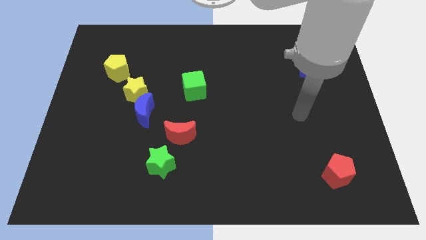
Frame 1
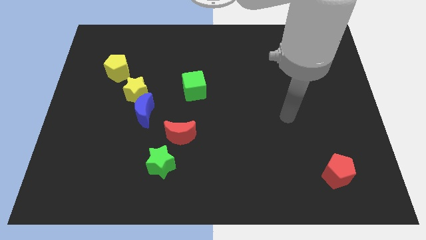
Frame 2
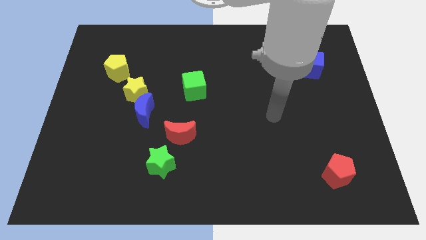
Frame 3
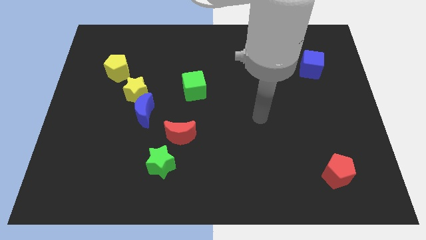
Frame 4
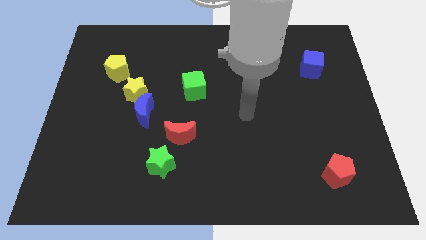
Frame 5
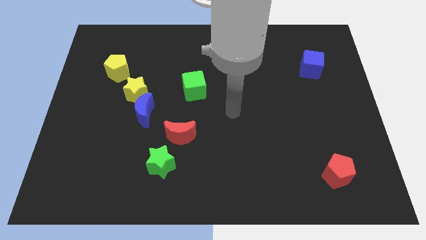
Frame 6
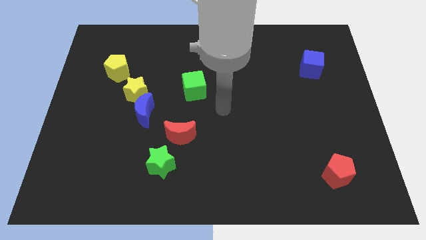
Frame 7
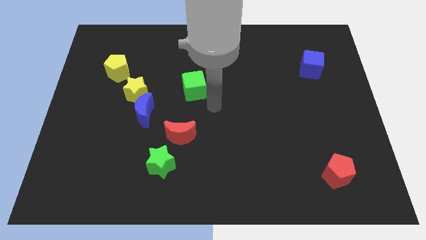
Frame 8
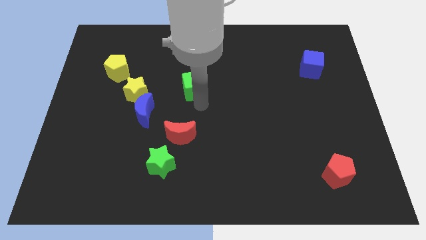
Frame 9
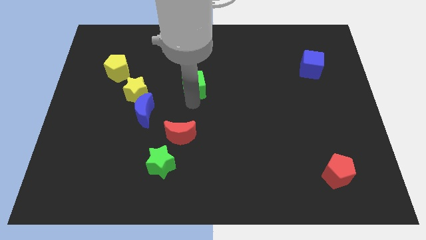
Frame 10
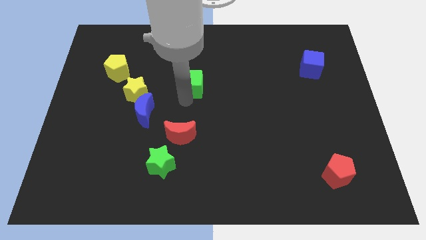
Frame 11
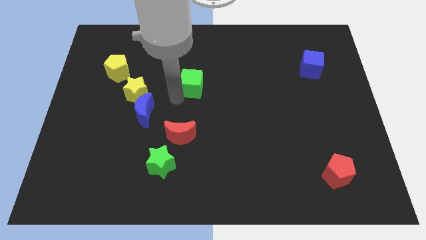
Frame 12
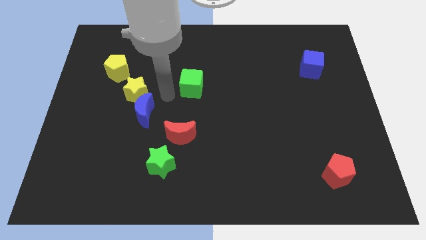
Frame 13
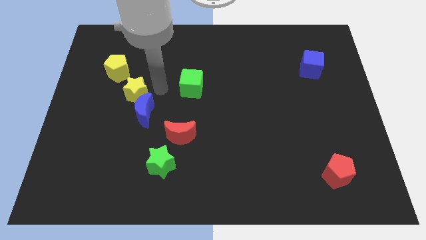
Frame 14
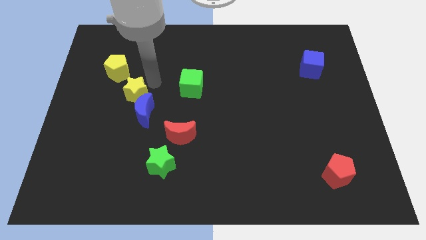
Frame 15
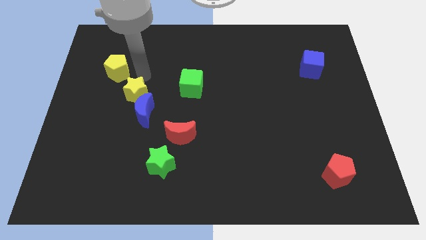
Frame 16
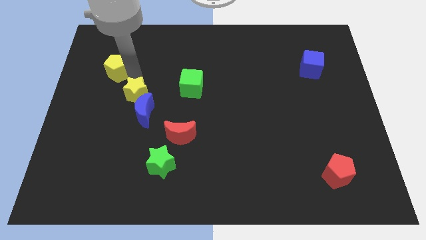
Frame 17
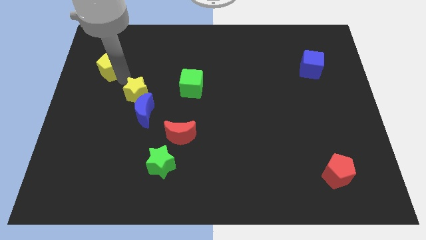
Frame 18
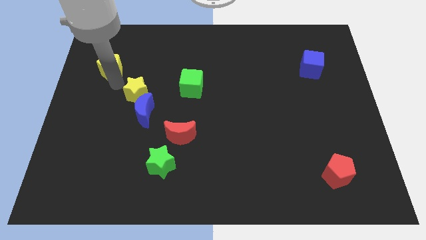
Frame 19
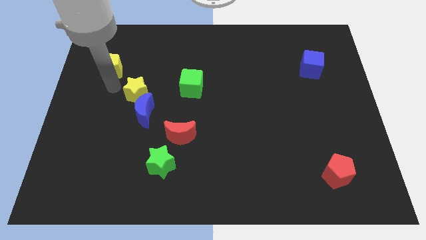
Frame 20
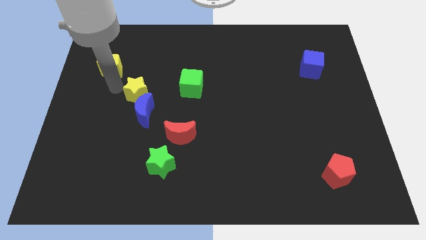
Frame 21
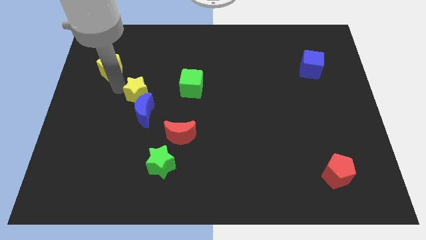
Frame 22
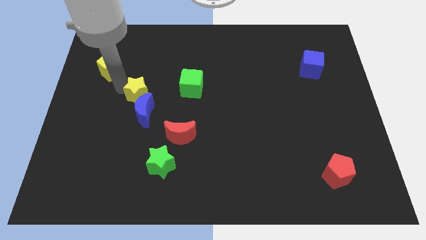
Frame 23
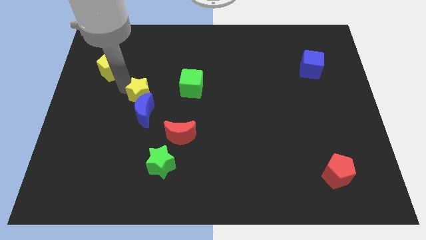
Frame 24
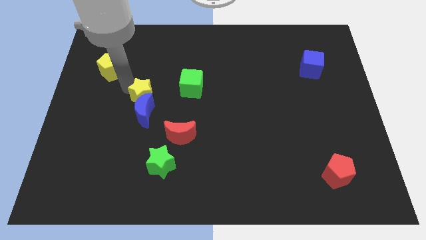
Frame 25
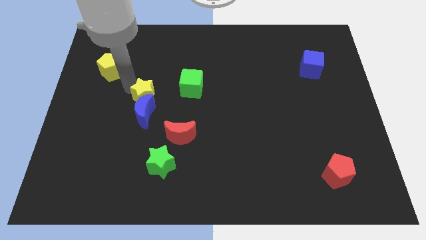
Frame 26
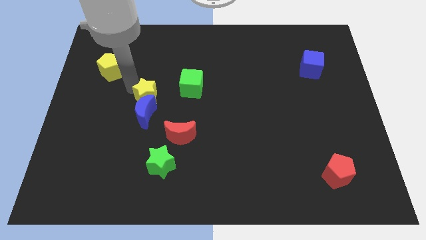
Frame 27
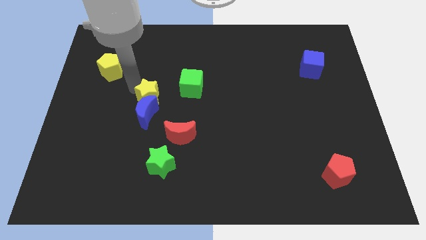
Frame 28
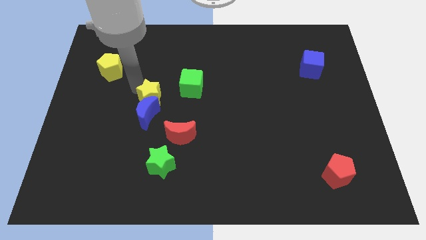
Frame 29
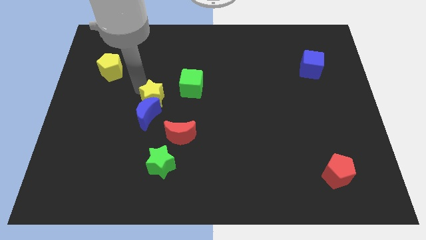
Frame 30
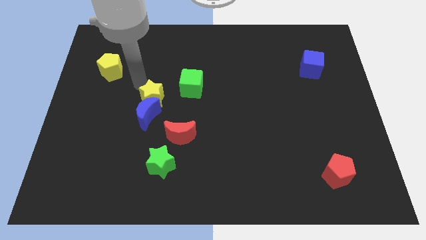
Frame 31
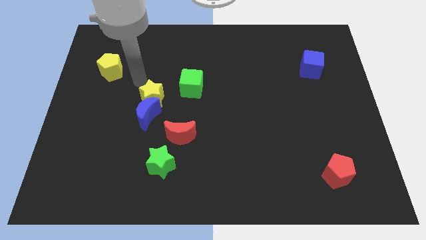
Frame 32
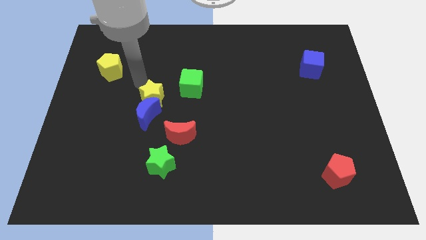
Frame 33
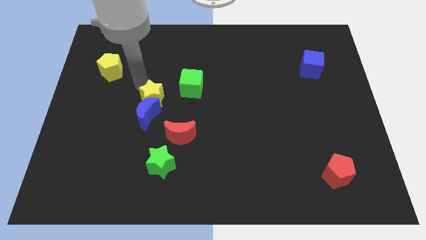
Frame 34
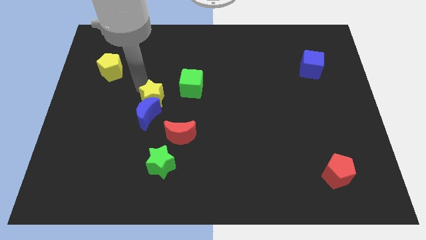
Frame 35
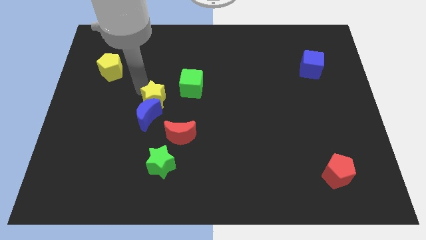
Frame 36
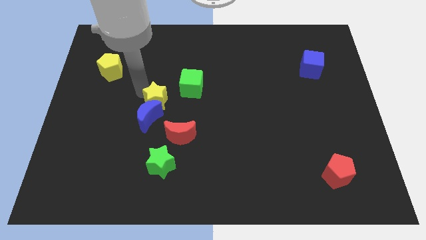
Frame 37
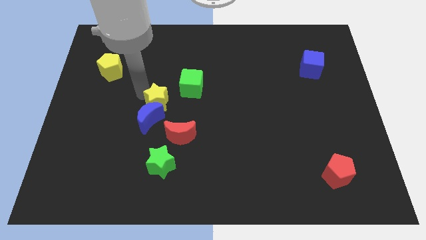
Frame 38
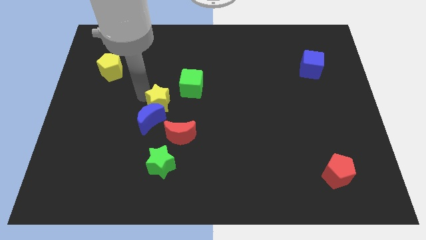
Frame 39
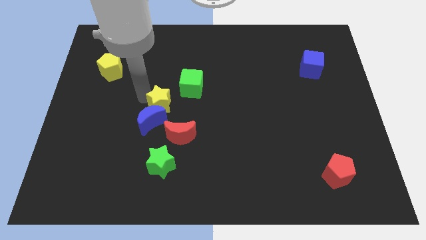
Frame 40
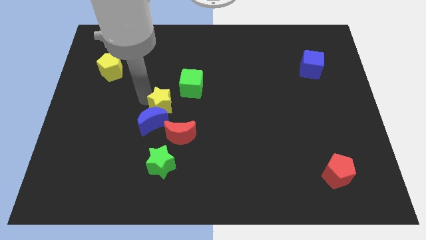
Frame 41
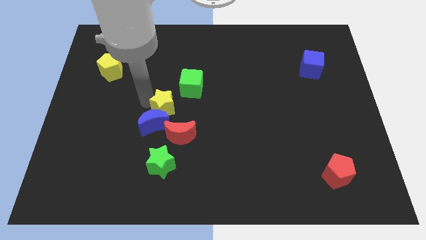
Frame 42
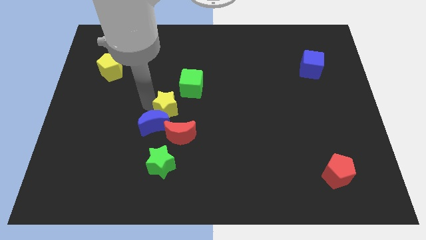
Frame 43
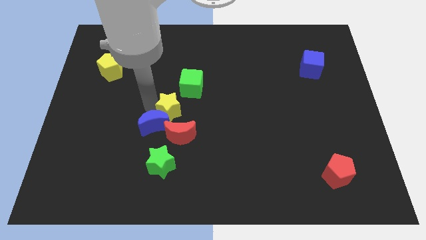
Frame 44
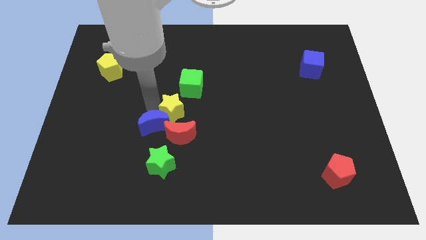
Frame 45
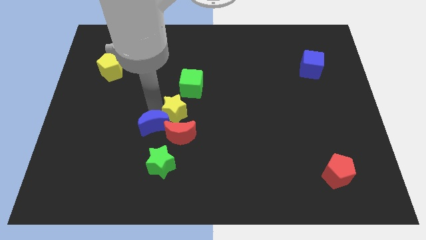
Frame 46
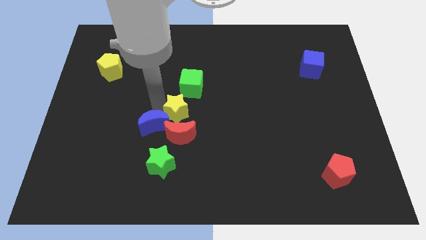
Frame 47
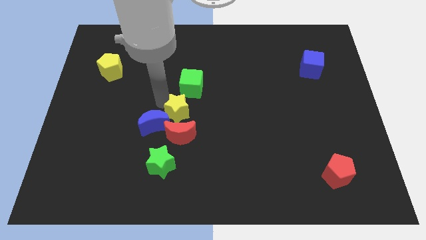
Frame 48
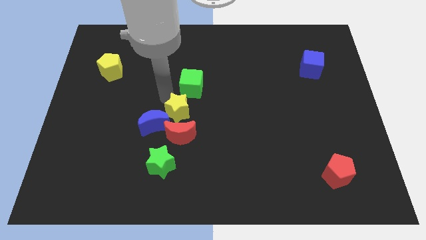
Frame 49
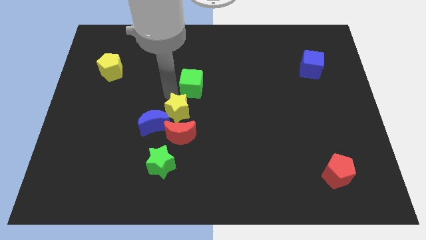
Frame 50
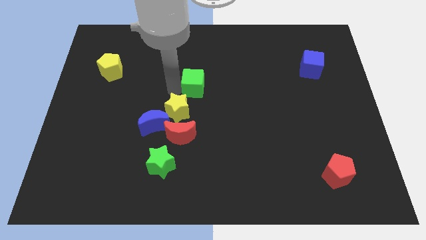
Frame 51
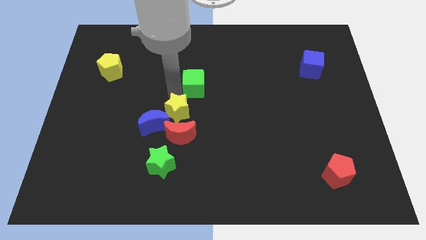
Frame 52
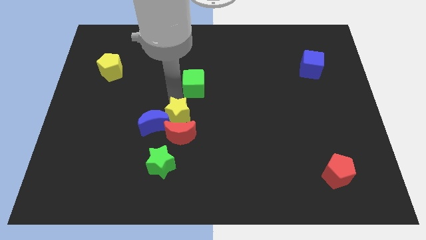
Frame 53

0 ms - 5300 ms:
push the yellow star to the red moon

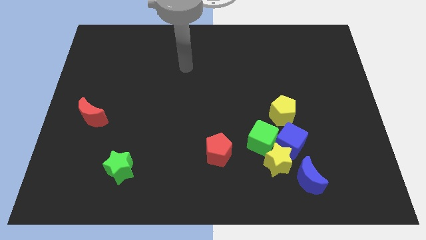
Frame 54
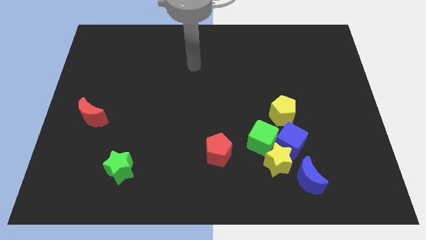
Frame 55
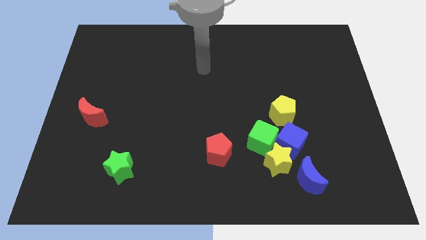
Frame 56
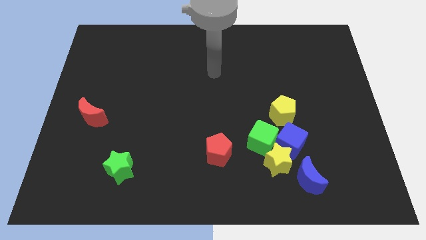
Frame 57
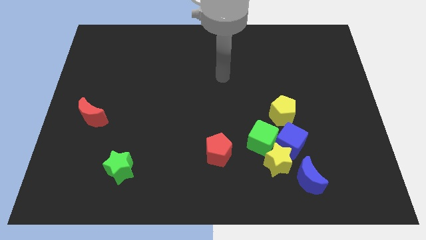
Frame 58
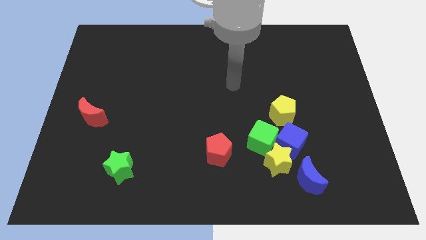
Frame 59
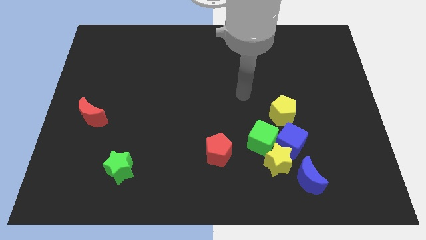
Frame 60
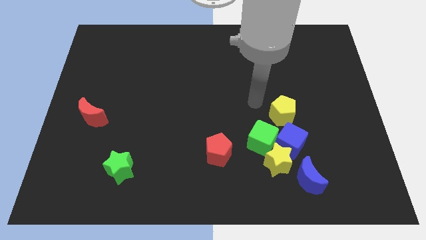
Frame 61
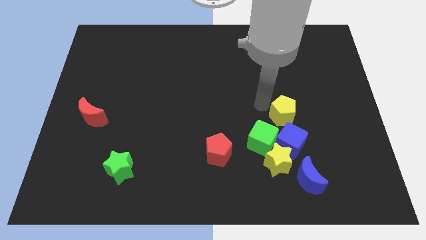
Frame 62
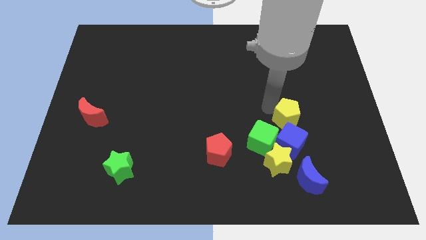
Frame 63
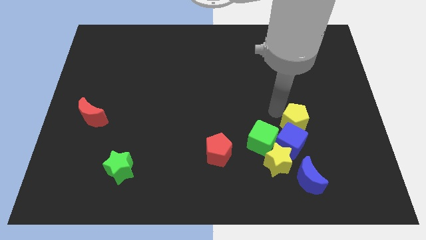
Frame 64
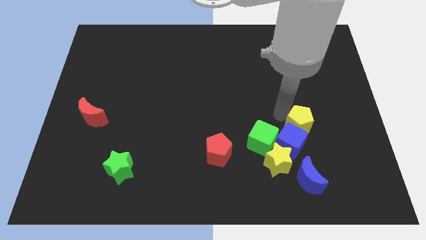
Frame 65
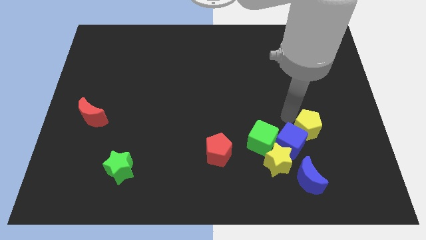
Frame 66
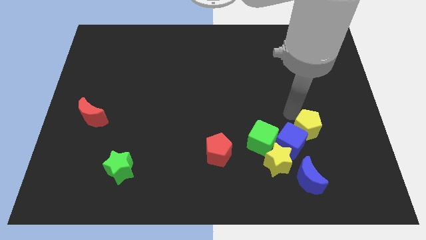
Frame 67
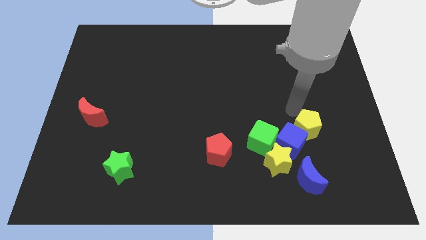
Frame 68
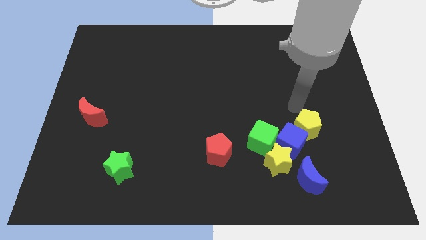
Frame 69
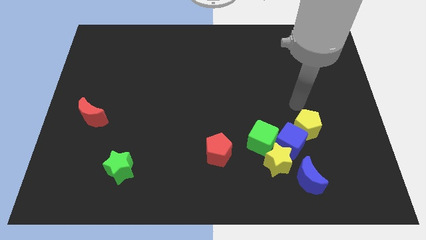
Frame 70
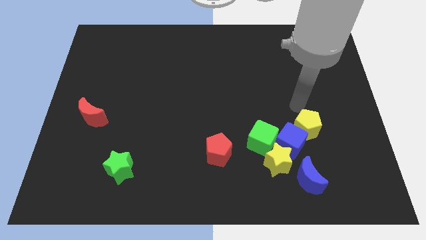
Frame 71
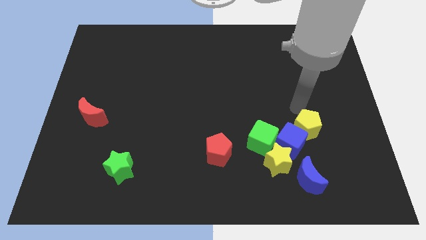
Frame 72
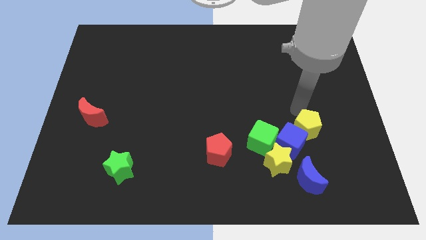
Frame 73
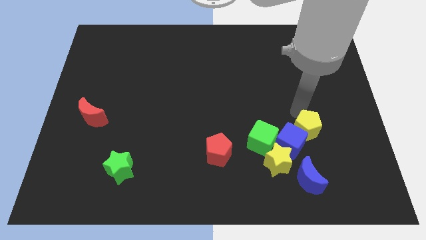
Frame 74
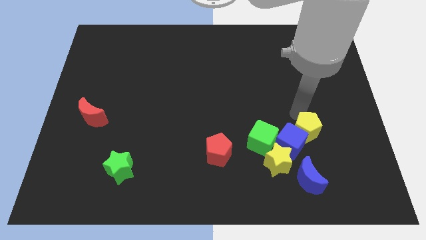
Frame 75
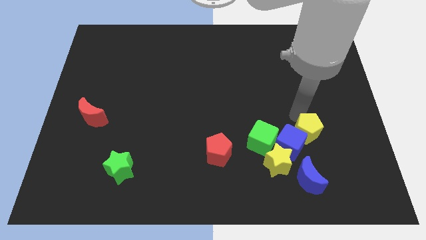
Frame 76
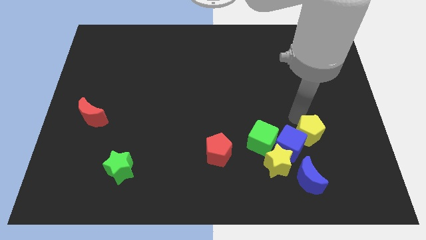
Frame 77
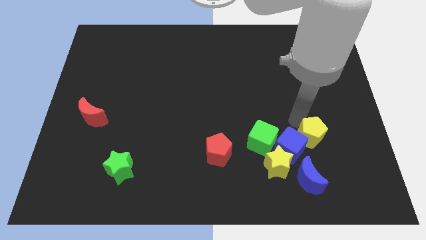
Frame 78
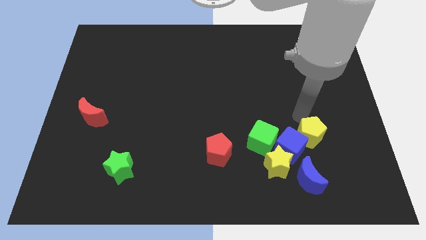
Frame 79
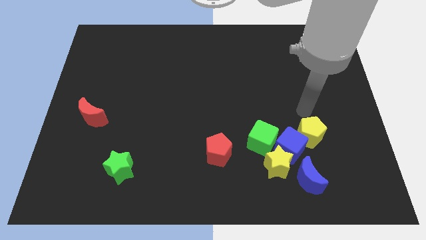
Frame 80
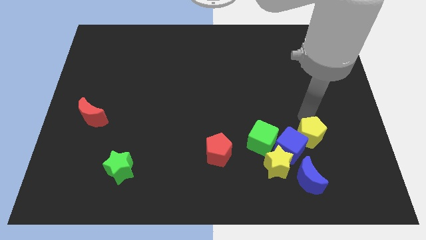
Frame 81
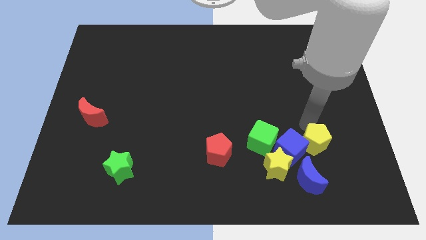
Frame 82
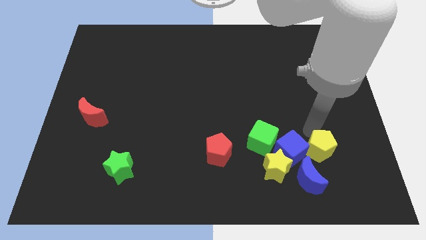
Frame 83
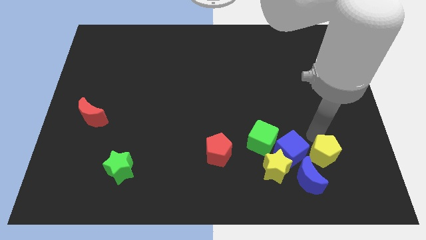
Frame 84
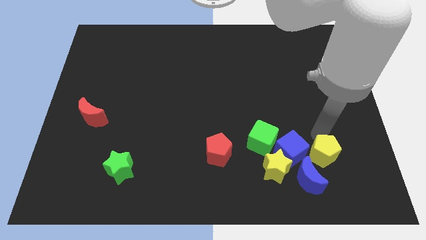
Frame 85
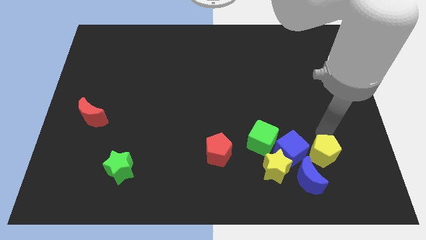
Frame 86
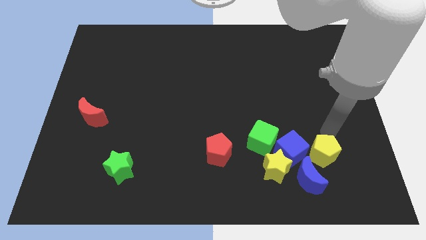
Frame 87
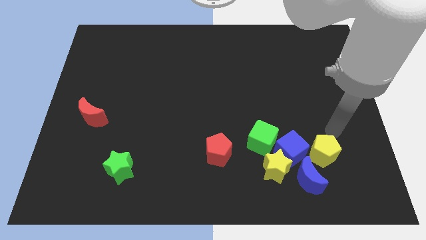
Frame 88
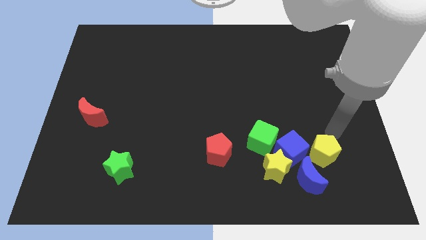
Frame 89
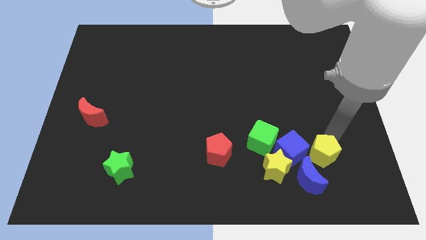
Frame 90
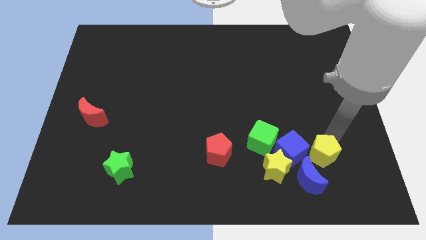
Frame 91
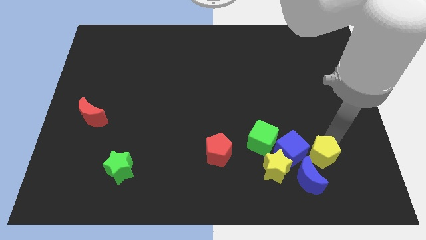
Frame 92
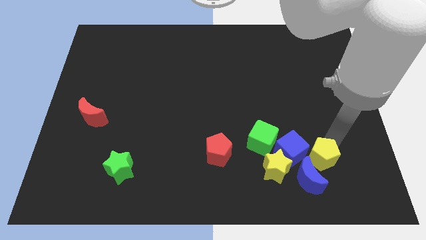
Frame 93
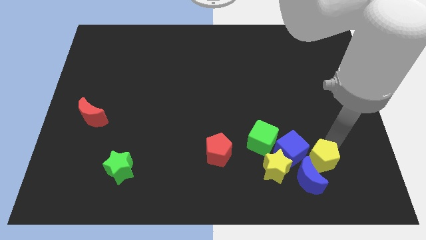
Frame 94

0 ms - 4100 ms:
push the yellow pentagon to the blue moon
